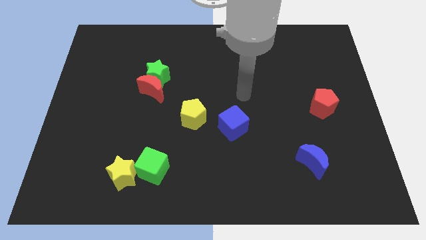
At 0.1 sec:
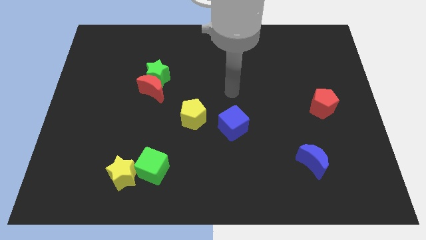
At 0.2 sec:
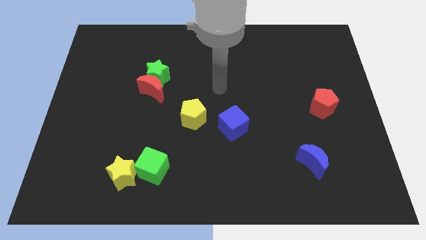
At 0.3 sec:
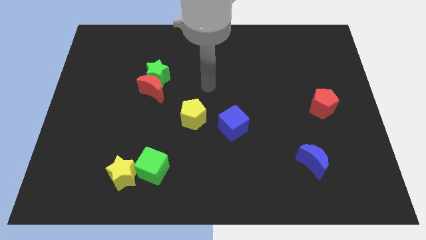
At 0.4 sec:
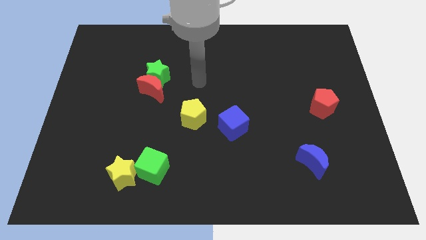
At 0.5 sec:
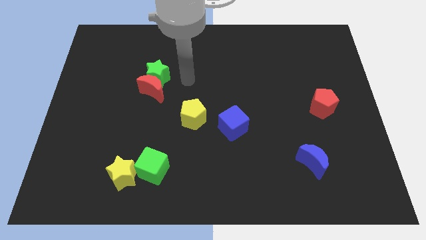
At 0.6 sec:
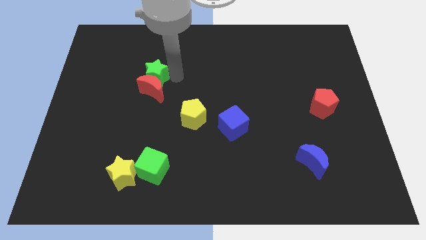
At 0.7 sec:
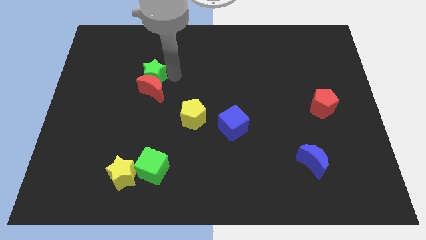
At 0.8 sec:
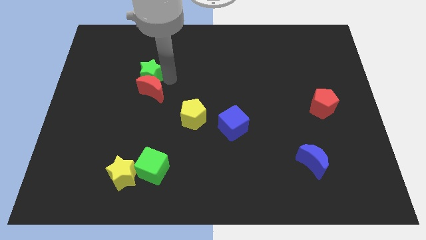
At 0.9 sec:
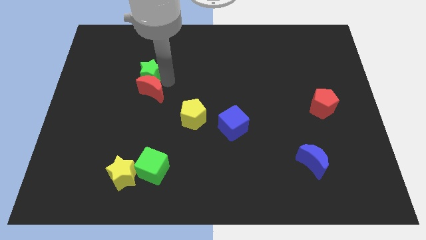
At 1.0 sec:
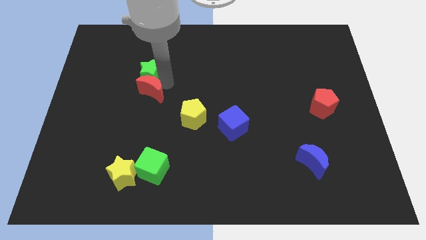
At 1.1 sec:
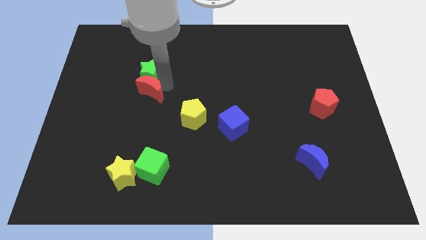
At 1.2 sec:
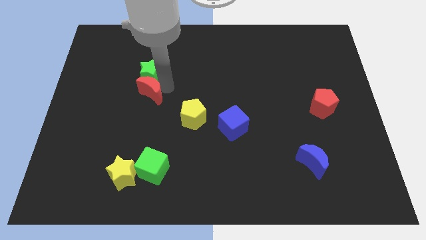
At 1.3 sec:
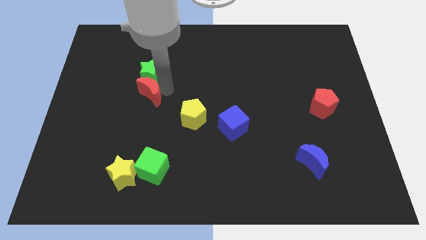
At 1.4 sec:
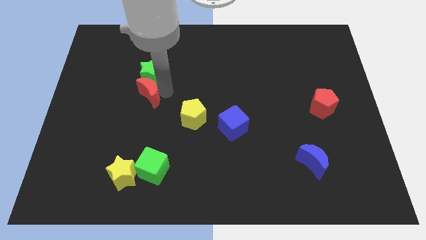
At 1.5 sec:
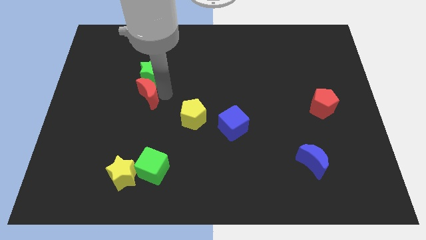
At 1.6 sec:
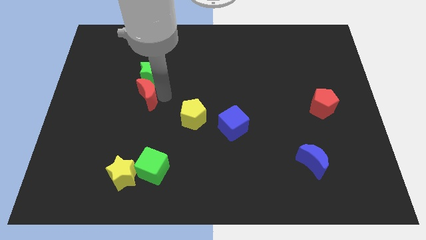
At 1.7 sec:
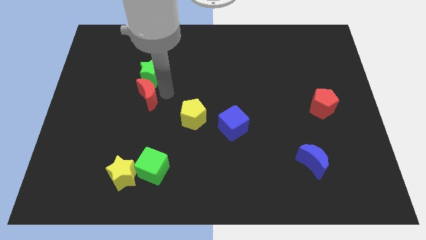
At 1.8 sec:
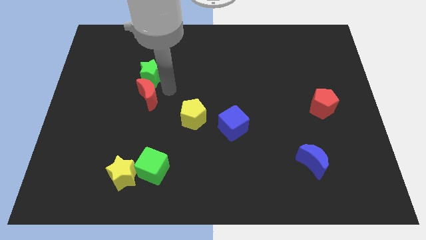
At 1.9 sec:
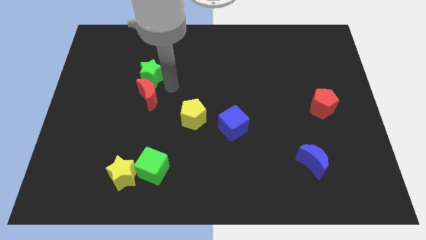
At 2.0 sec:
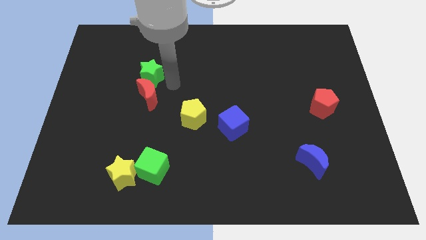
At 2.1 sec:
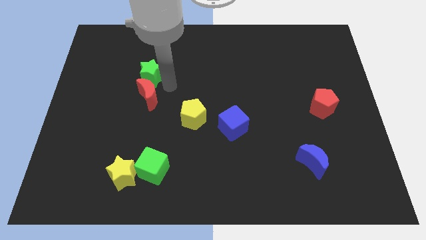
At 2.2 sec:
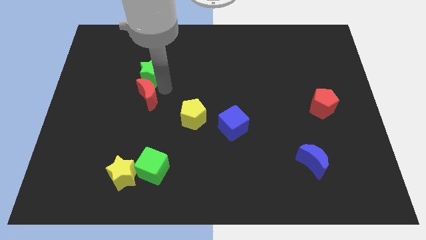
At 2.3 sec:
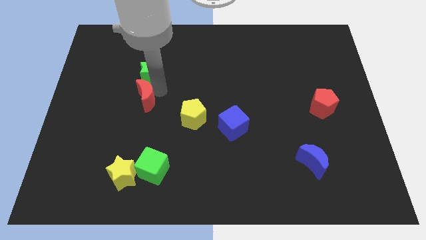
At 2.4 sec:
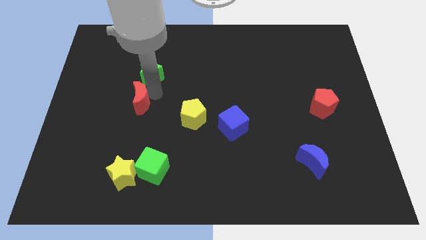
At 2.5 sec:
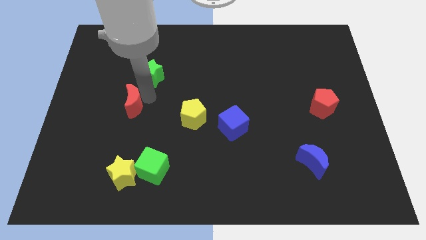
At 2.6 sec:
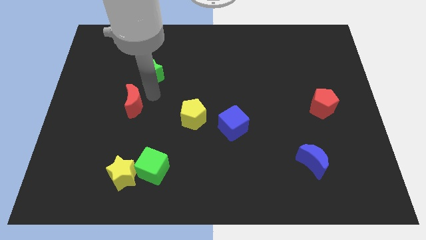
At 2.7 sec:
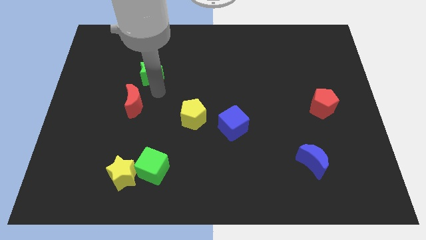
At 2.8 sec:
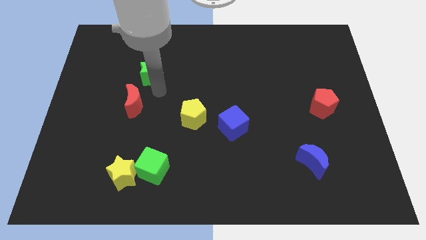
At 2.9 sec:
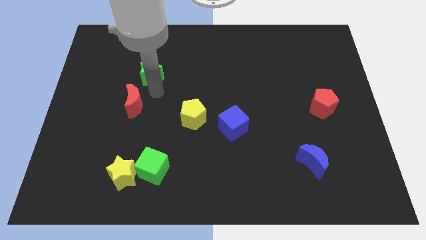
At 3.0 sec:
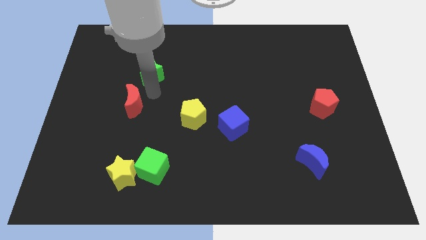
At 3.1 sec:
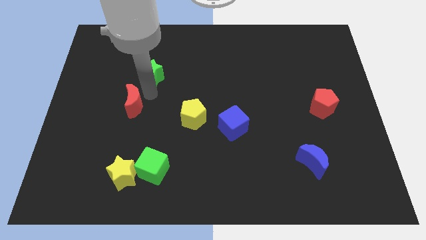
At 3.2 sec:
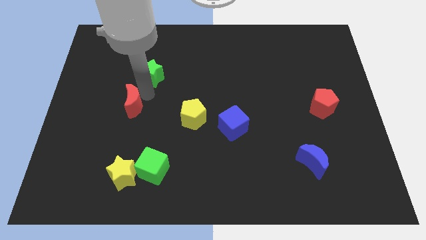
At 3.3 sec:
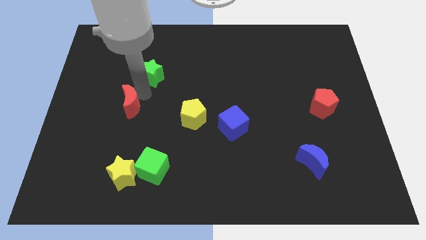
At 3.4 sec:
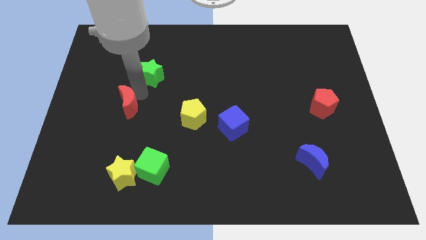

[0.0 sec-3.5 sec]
slightly slide the red moon diagonally down and left

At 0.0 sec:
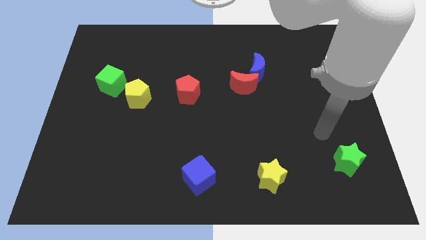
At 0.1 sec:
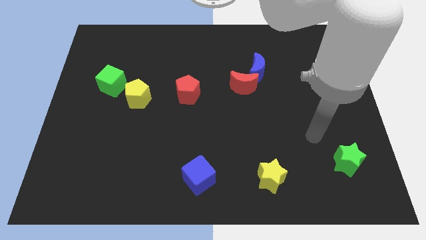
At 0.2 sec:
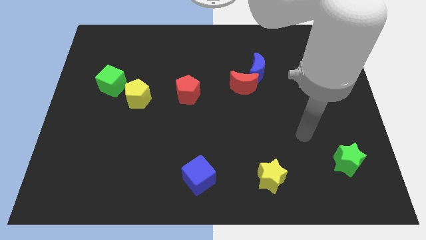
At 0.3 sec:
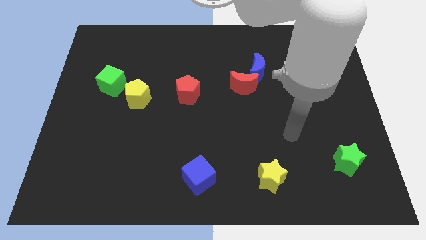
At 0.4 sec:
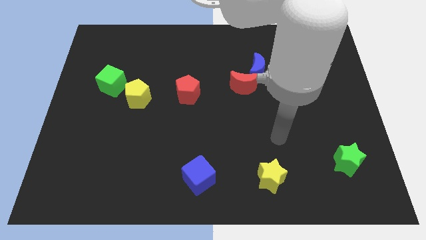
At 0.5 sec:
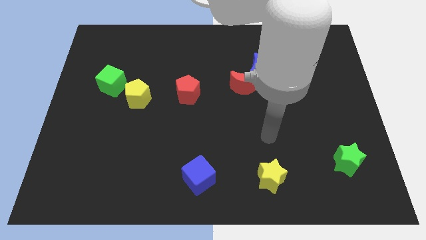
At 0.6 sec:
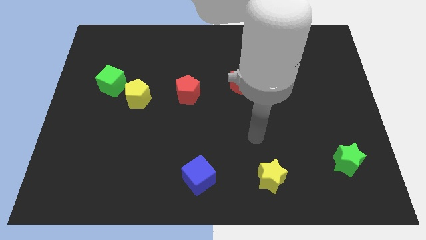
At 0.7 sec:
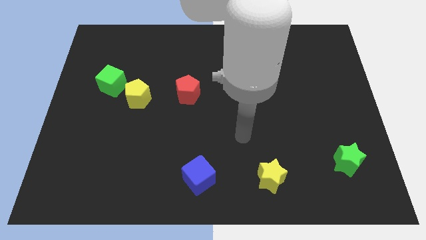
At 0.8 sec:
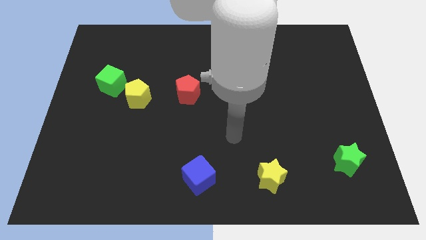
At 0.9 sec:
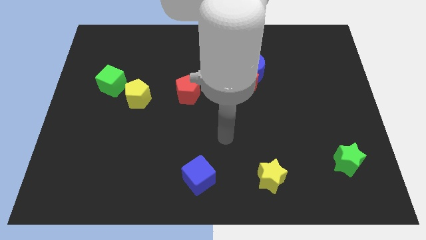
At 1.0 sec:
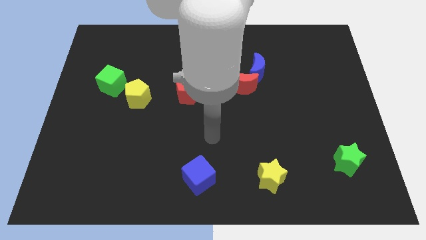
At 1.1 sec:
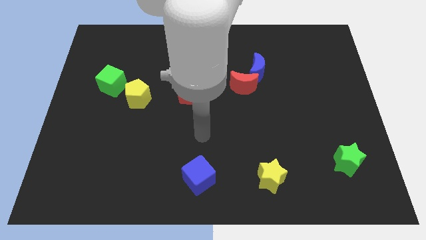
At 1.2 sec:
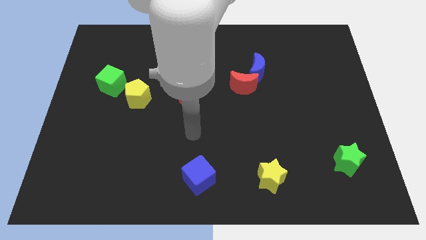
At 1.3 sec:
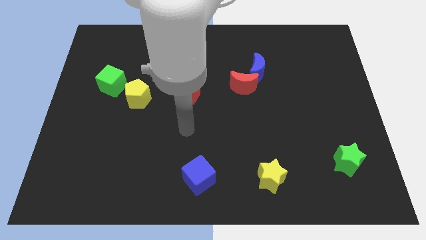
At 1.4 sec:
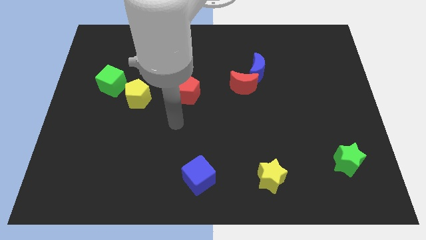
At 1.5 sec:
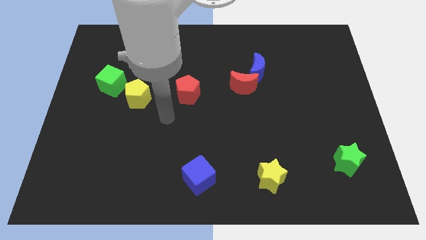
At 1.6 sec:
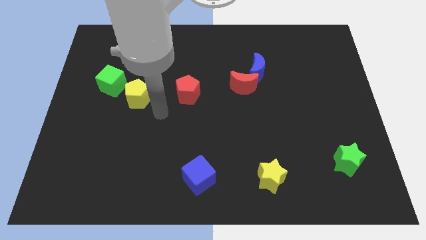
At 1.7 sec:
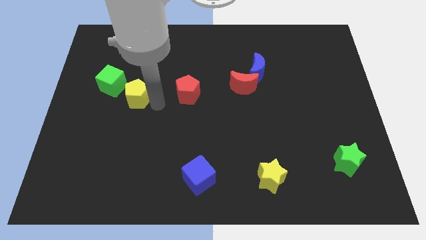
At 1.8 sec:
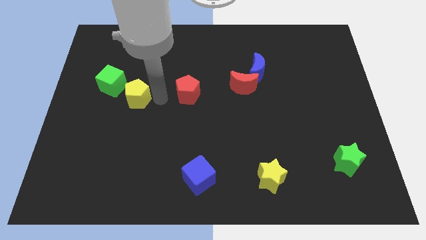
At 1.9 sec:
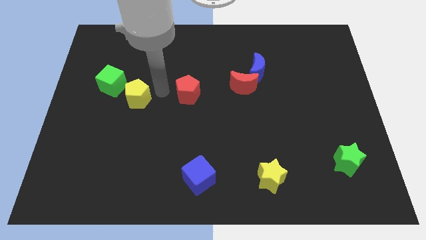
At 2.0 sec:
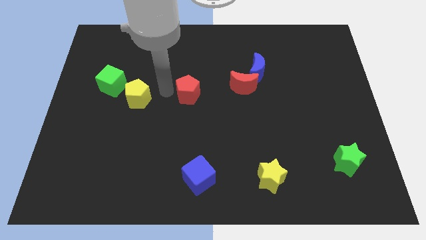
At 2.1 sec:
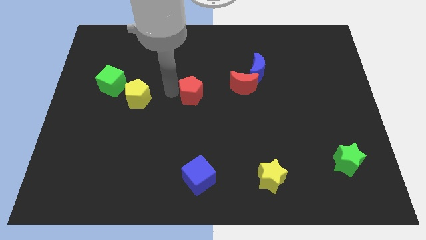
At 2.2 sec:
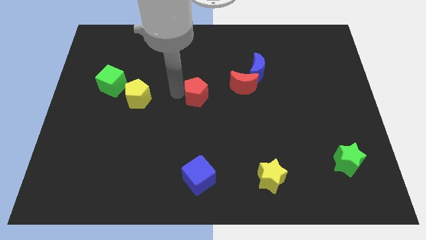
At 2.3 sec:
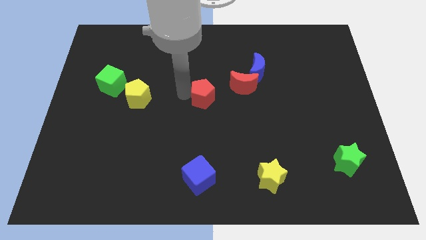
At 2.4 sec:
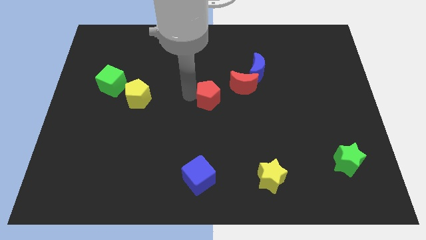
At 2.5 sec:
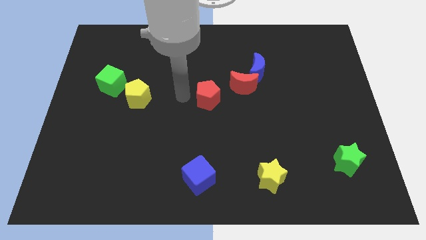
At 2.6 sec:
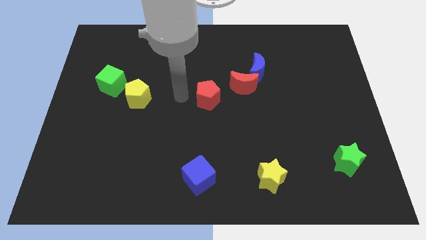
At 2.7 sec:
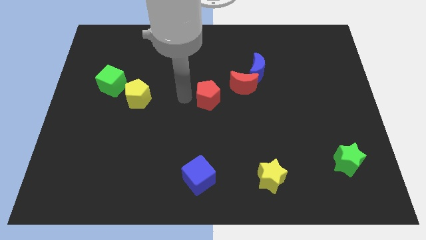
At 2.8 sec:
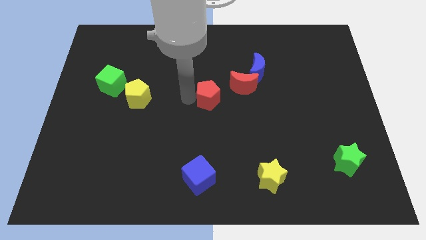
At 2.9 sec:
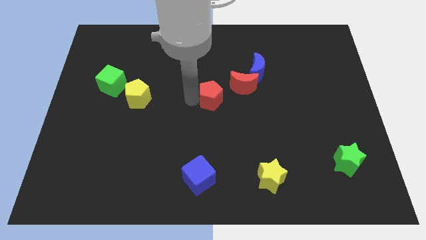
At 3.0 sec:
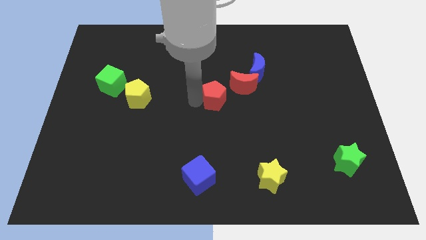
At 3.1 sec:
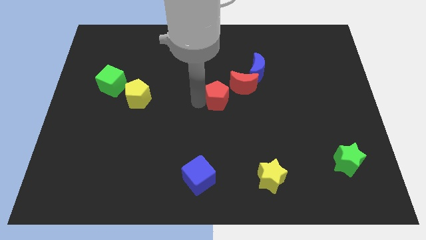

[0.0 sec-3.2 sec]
slightly move the red pentagon to the right

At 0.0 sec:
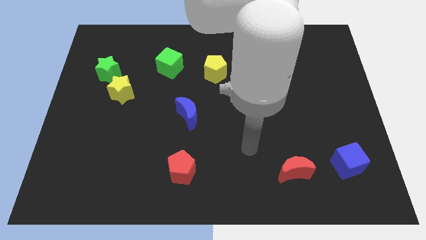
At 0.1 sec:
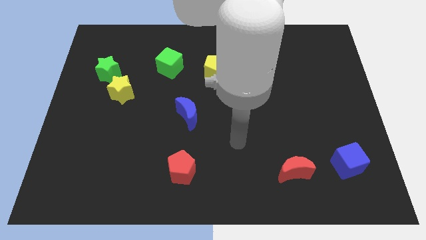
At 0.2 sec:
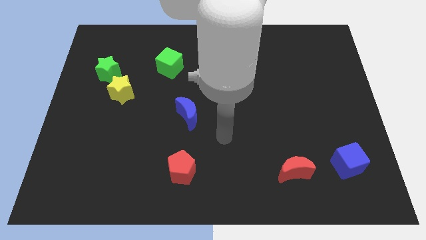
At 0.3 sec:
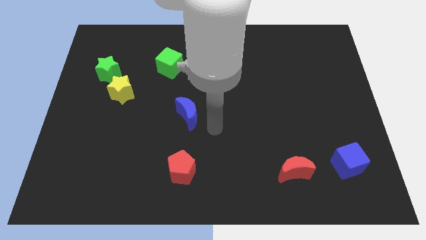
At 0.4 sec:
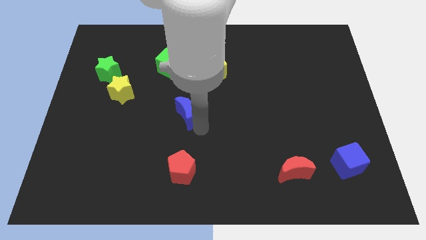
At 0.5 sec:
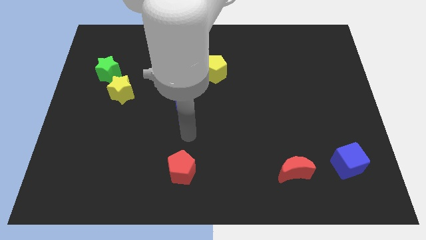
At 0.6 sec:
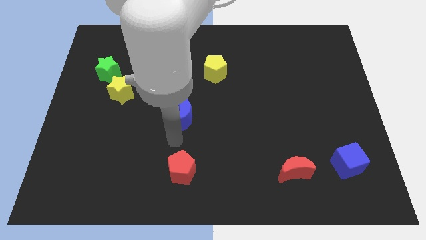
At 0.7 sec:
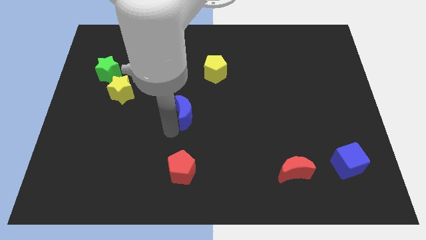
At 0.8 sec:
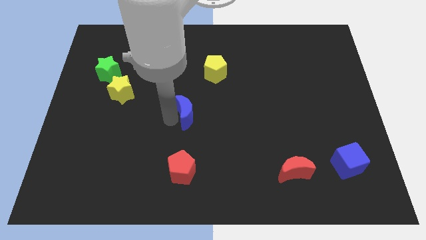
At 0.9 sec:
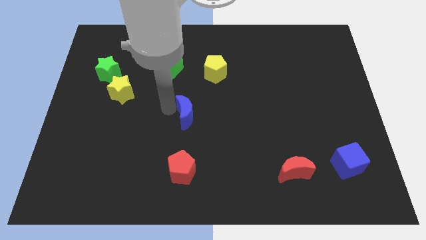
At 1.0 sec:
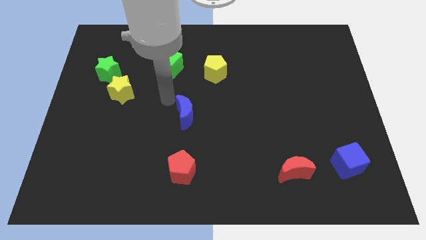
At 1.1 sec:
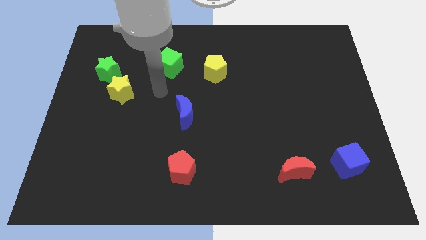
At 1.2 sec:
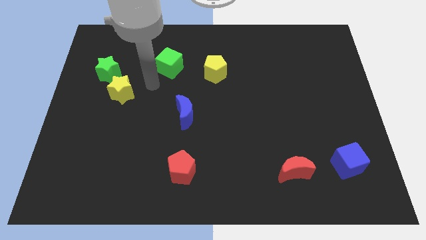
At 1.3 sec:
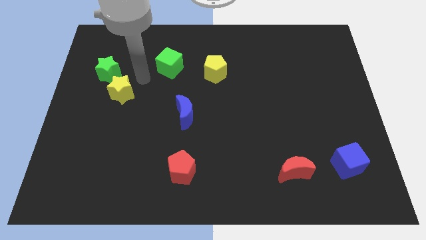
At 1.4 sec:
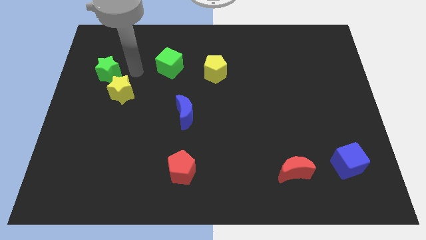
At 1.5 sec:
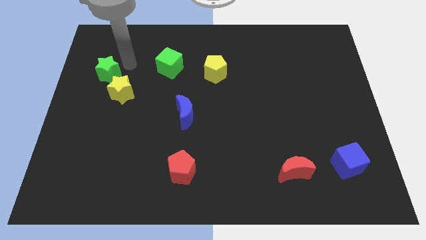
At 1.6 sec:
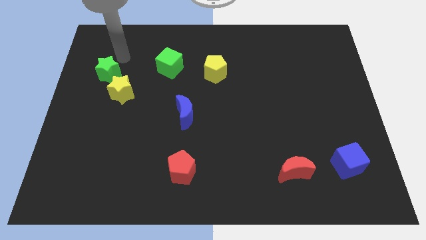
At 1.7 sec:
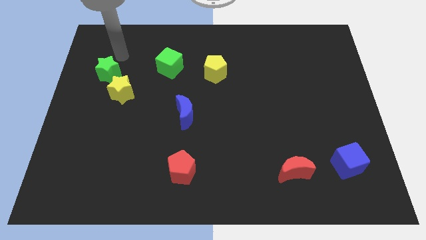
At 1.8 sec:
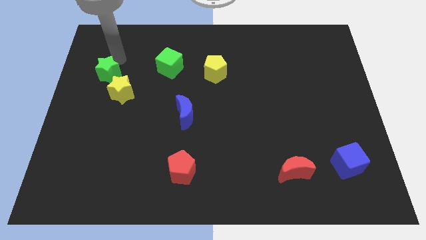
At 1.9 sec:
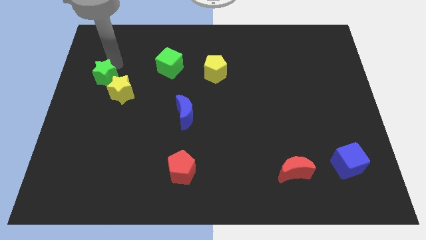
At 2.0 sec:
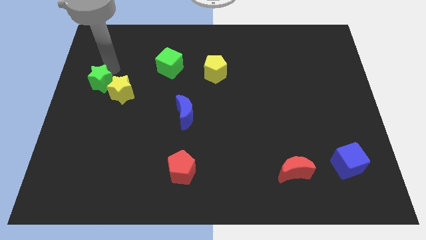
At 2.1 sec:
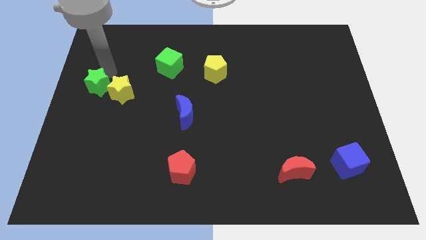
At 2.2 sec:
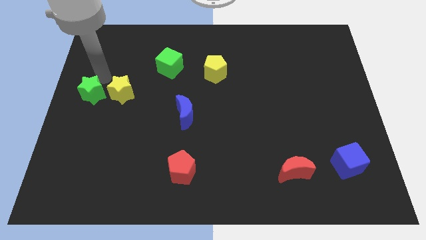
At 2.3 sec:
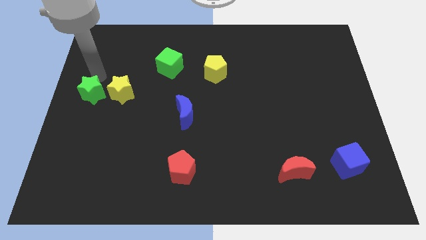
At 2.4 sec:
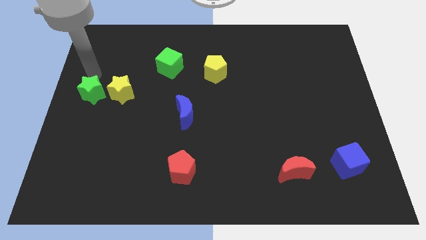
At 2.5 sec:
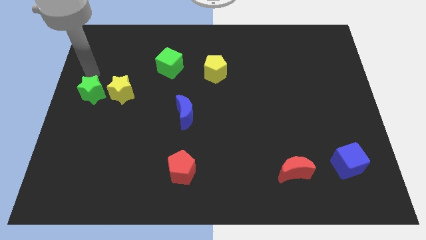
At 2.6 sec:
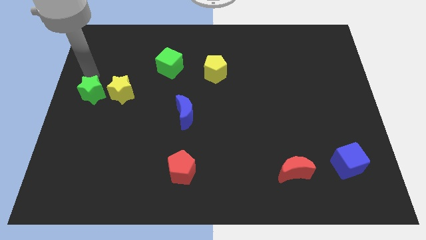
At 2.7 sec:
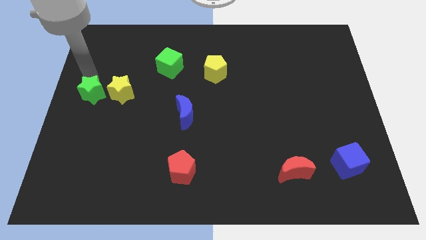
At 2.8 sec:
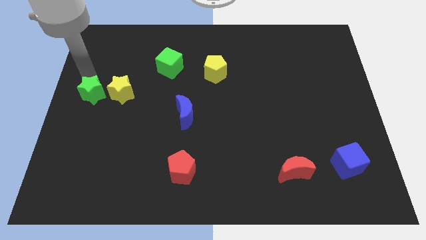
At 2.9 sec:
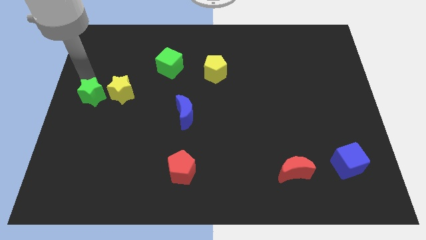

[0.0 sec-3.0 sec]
slide the green star slightly downwards
